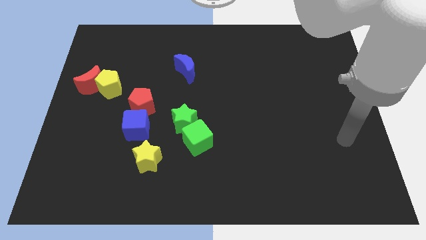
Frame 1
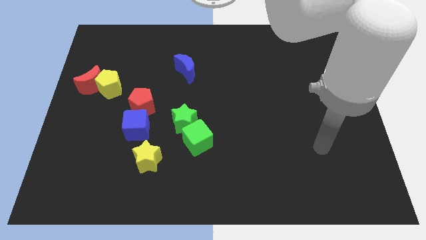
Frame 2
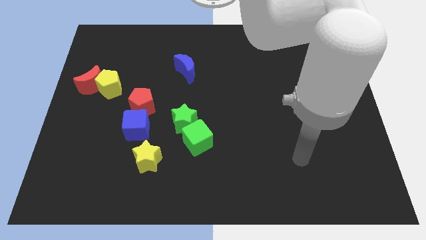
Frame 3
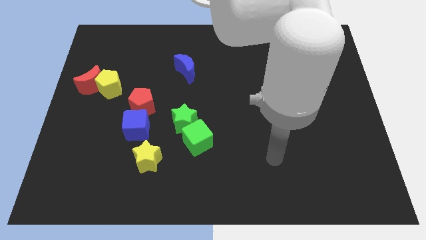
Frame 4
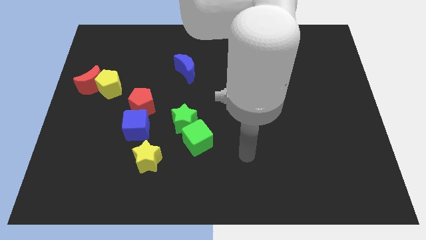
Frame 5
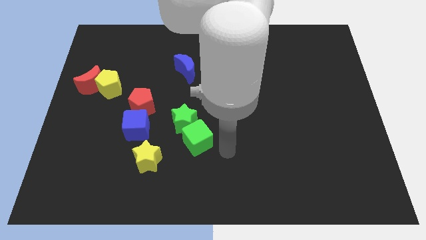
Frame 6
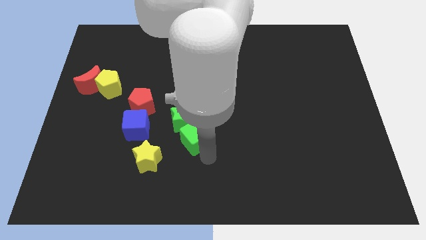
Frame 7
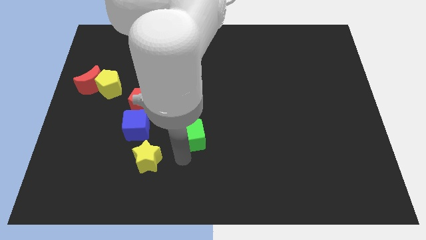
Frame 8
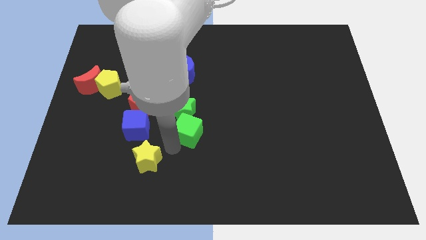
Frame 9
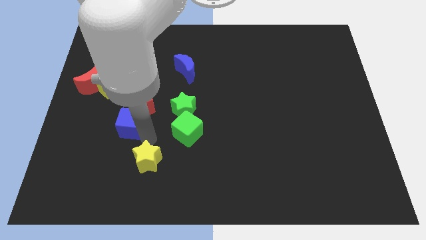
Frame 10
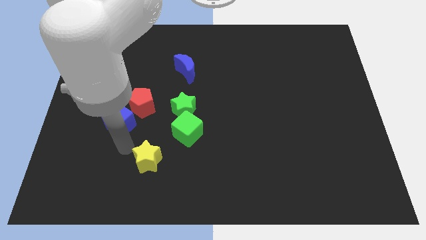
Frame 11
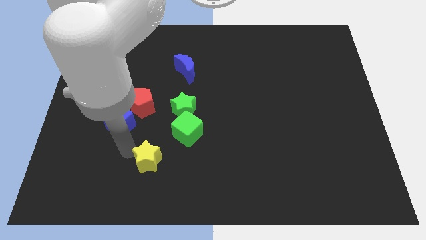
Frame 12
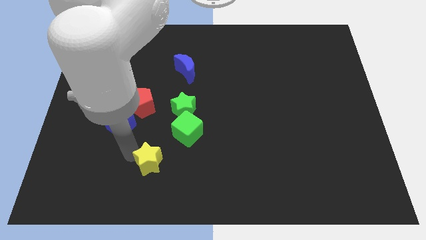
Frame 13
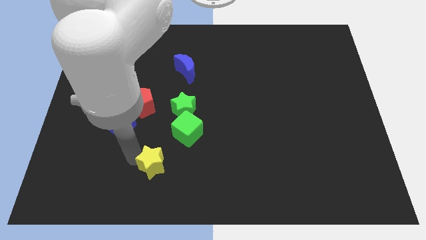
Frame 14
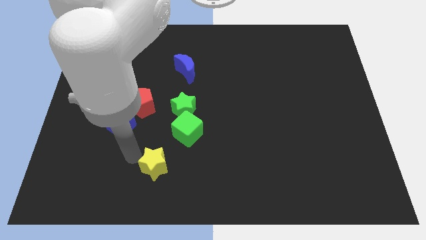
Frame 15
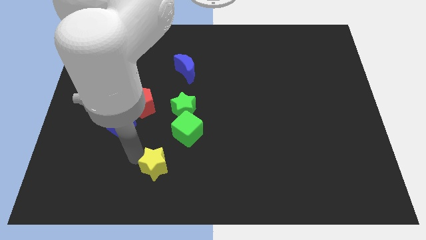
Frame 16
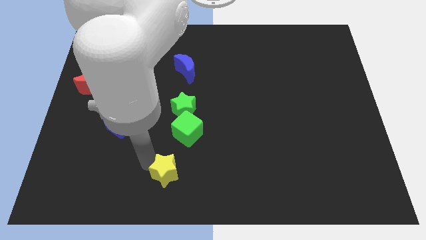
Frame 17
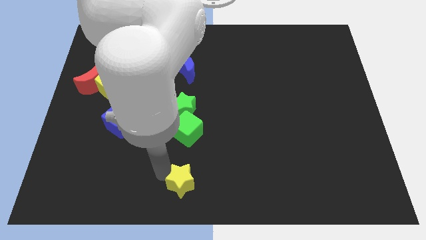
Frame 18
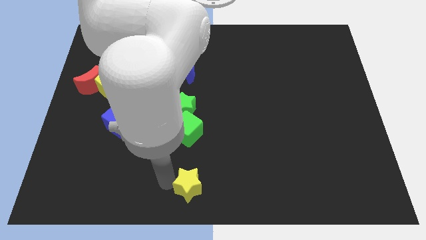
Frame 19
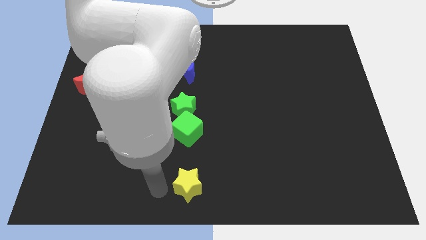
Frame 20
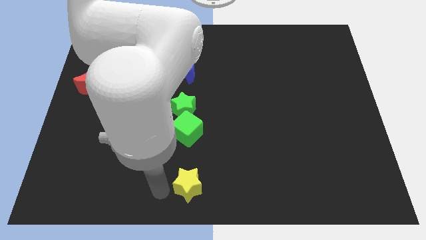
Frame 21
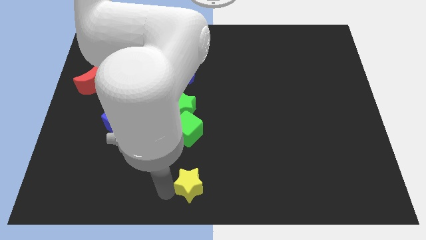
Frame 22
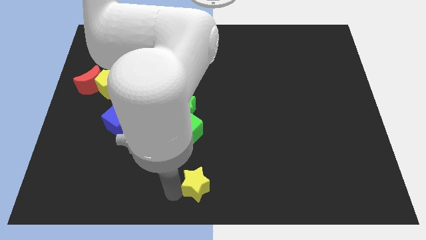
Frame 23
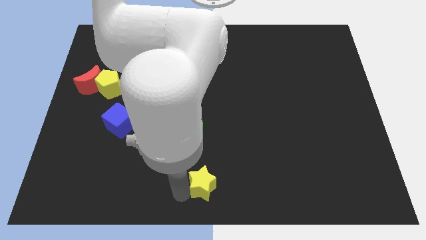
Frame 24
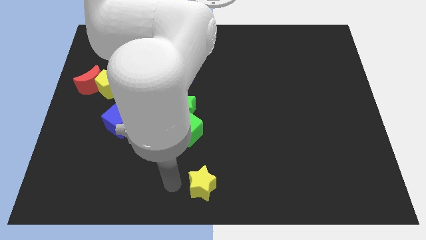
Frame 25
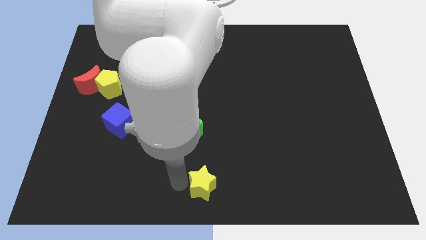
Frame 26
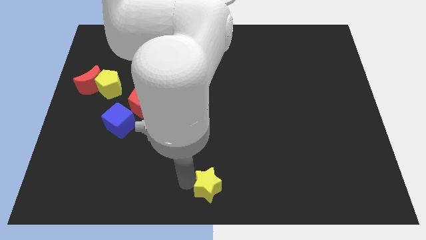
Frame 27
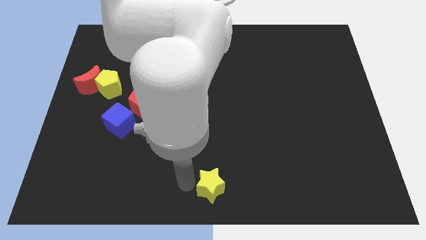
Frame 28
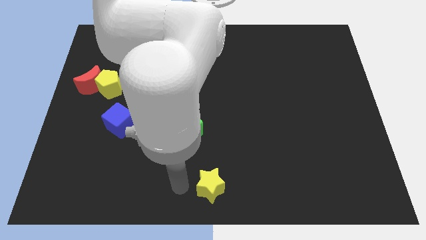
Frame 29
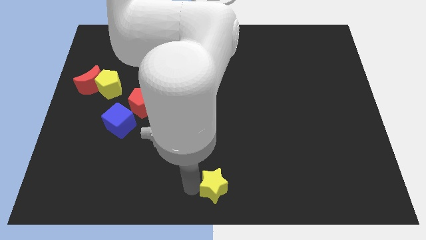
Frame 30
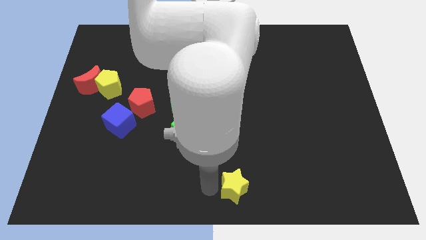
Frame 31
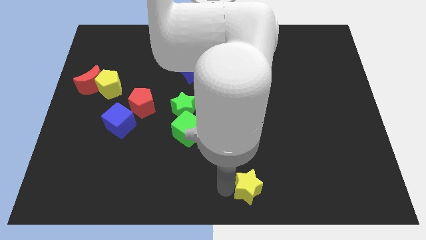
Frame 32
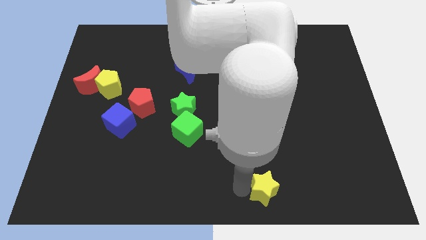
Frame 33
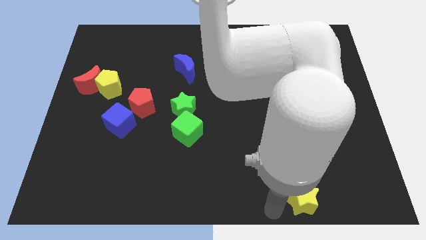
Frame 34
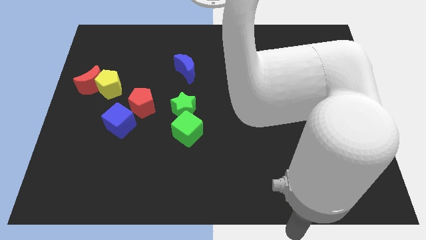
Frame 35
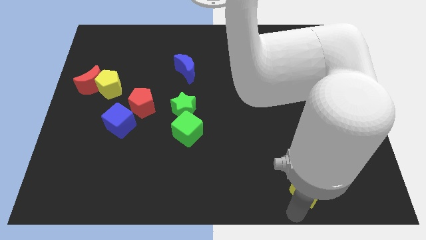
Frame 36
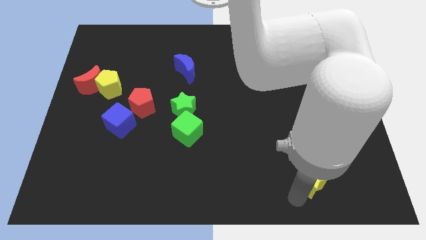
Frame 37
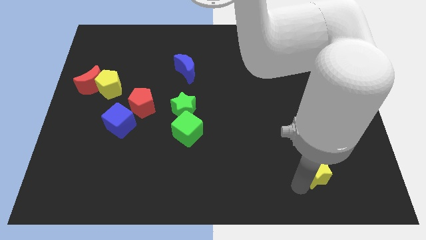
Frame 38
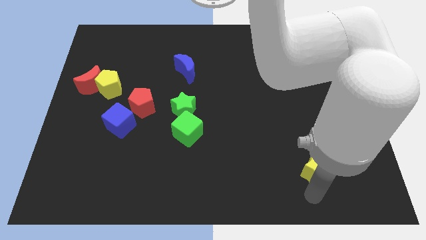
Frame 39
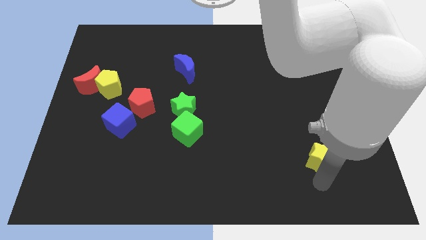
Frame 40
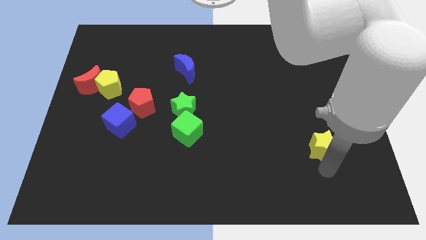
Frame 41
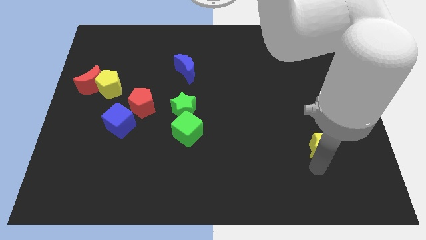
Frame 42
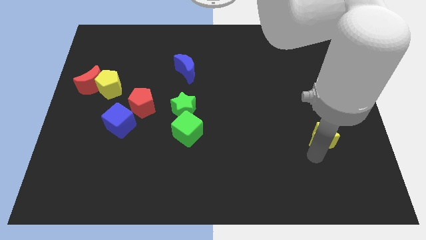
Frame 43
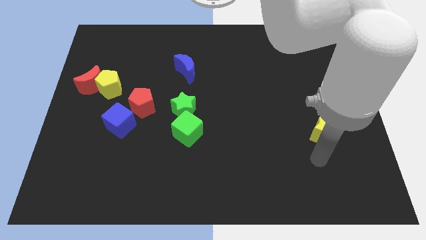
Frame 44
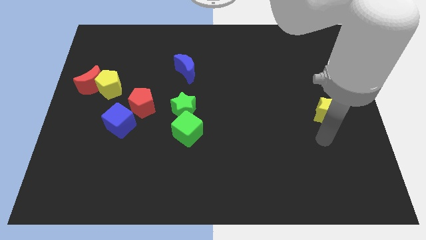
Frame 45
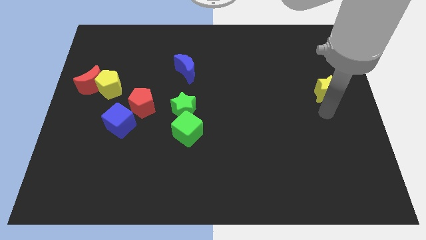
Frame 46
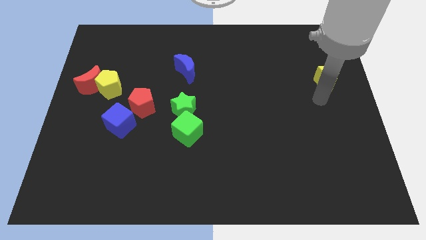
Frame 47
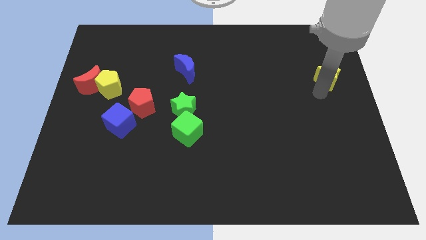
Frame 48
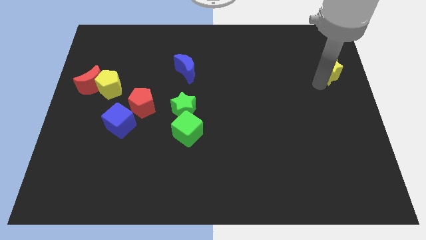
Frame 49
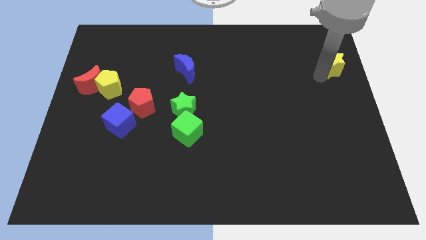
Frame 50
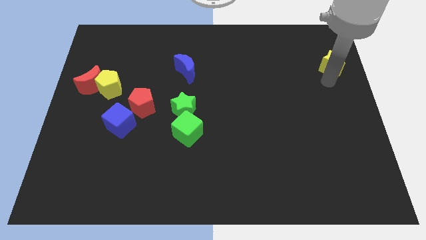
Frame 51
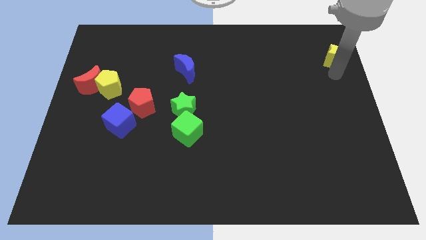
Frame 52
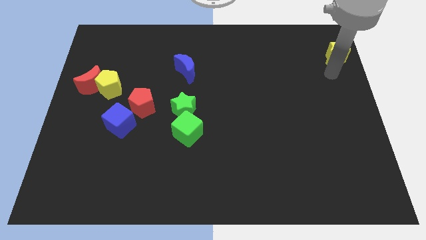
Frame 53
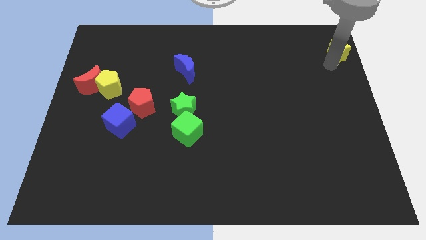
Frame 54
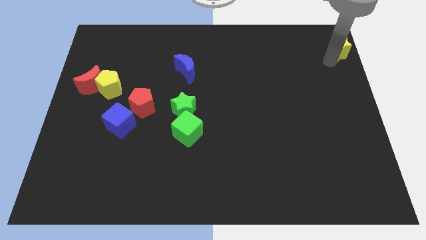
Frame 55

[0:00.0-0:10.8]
push the yellow star to the top right of the board

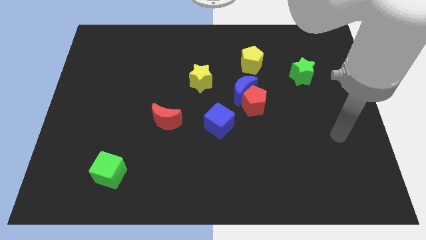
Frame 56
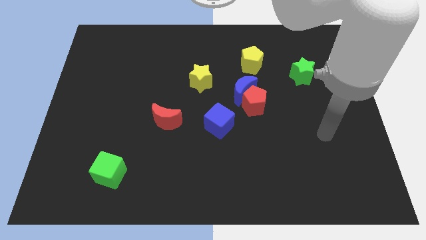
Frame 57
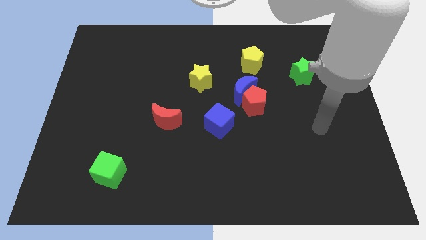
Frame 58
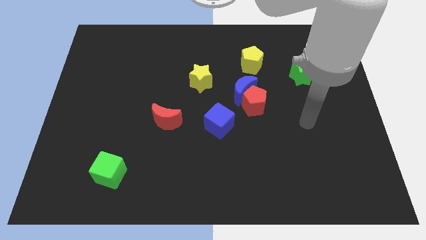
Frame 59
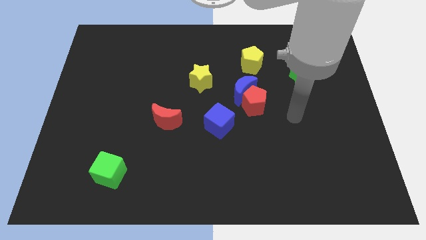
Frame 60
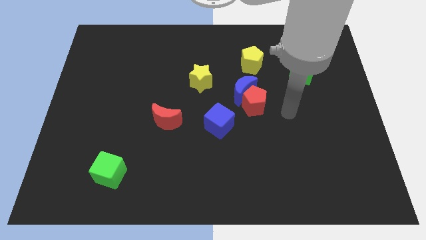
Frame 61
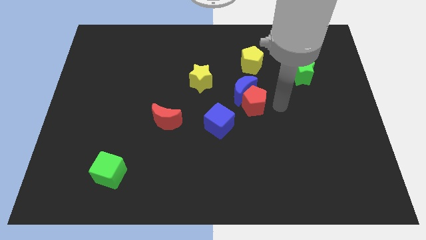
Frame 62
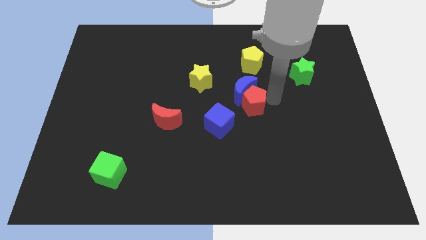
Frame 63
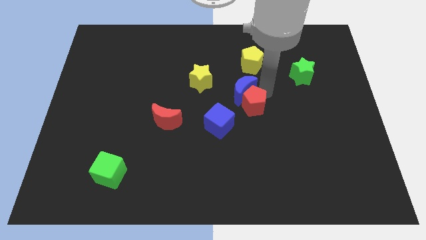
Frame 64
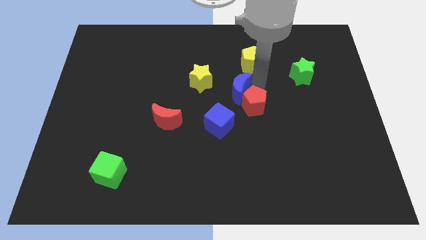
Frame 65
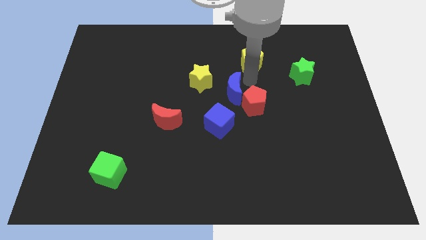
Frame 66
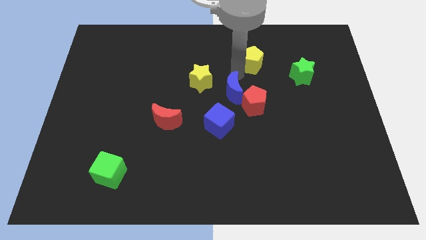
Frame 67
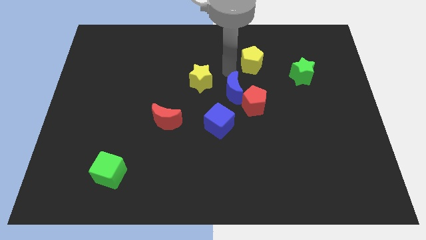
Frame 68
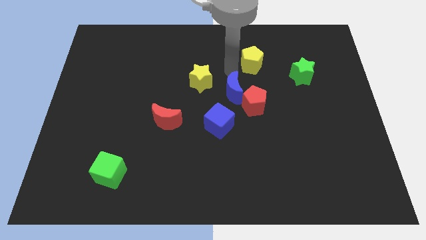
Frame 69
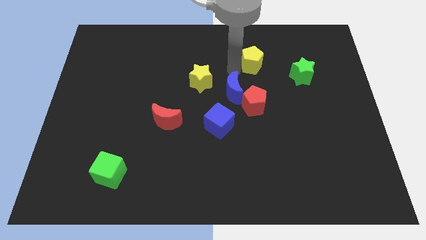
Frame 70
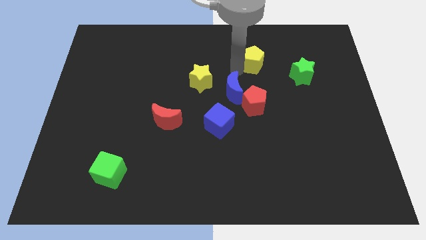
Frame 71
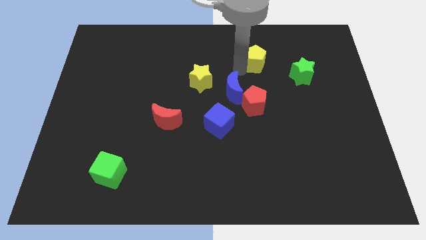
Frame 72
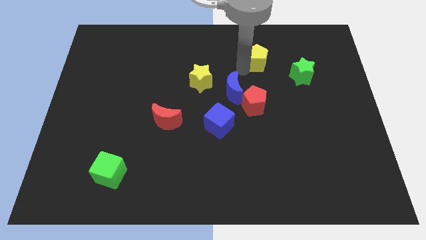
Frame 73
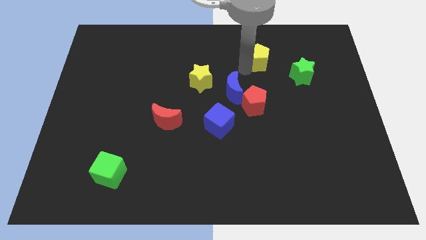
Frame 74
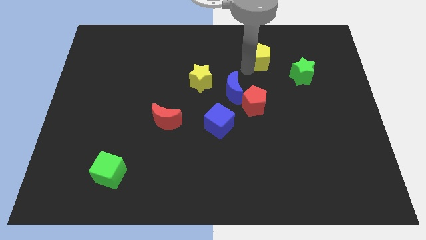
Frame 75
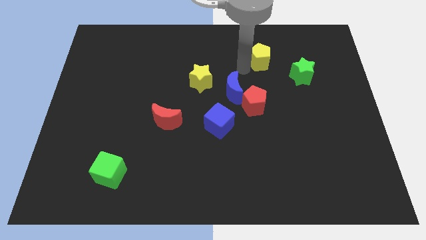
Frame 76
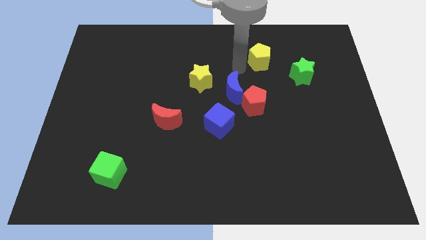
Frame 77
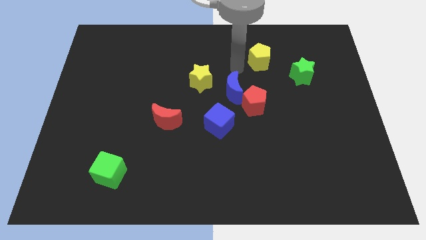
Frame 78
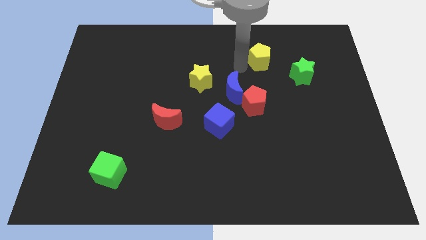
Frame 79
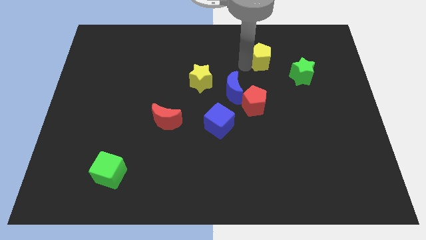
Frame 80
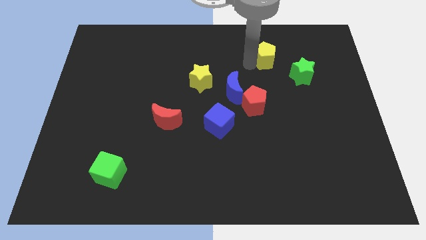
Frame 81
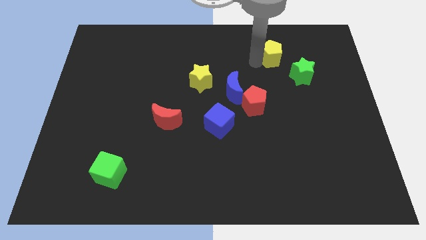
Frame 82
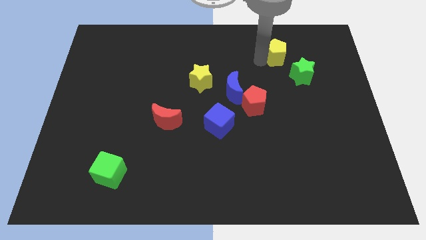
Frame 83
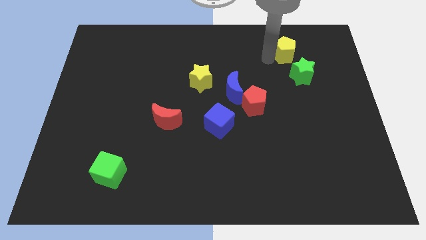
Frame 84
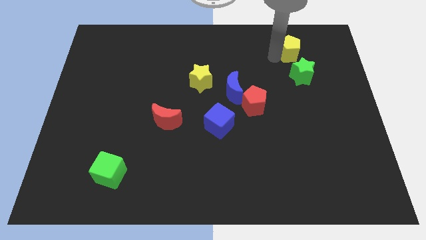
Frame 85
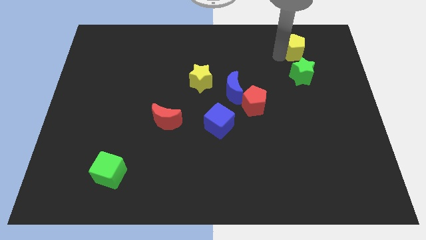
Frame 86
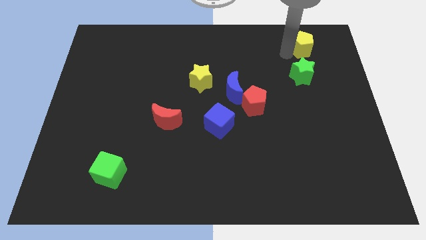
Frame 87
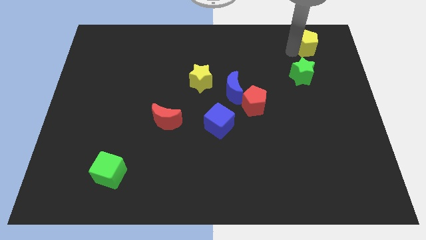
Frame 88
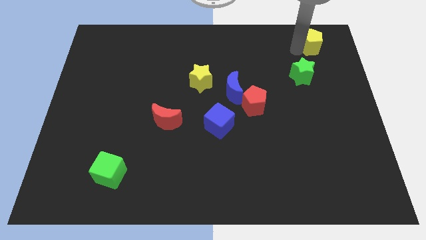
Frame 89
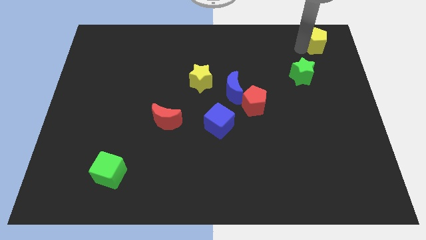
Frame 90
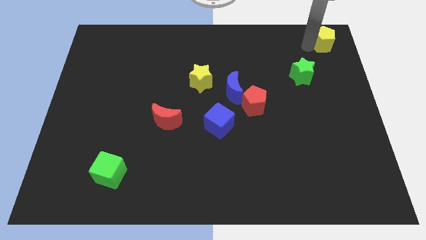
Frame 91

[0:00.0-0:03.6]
slide the yellow pentagon to the upper right corner
